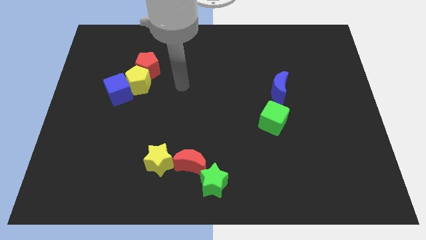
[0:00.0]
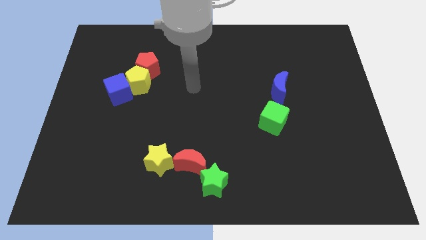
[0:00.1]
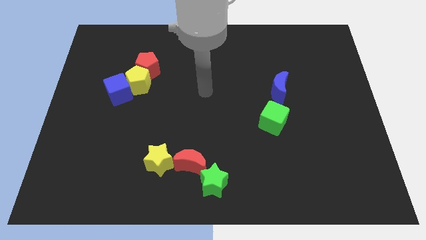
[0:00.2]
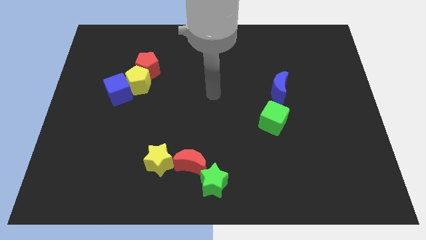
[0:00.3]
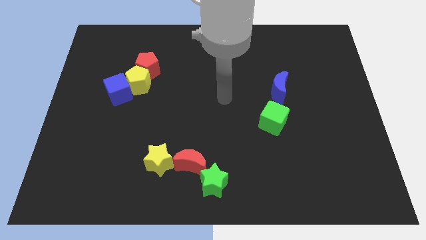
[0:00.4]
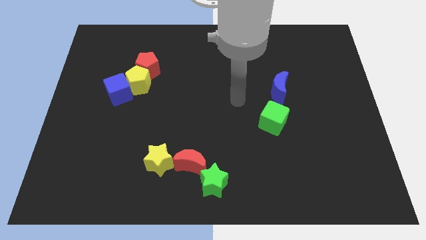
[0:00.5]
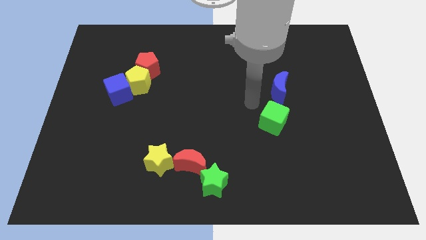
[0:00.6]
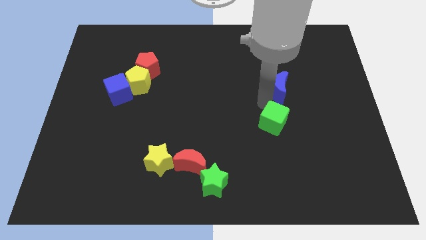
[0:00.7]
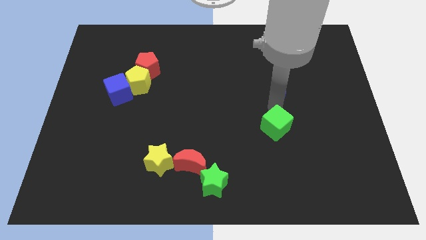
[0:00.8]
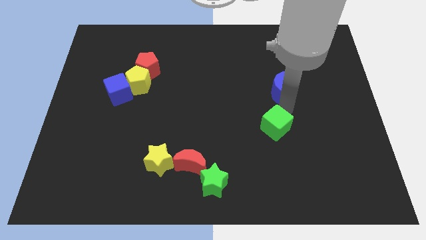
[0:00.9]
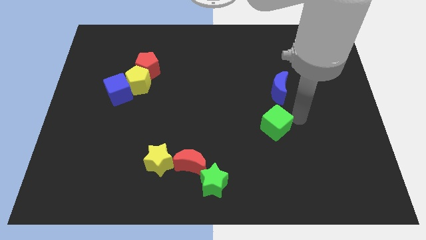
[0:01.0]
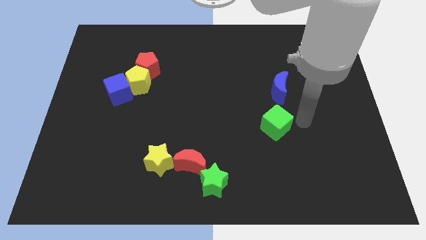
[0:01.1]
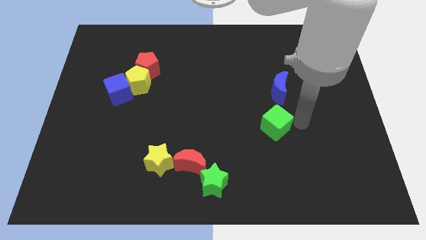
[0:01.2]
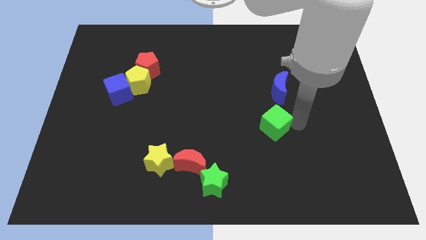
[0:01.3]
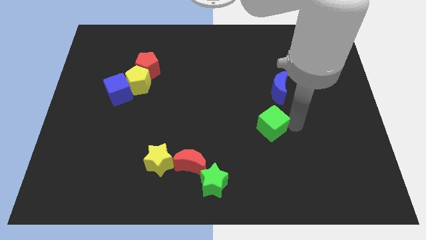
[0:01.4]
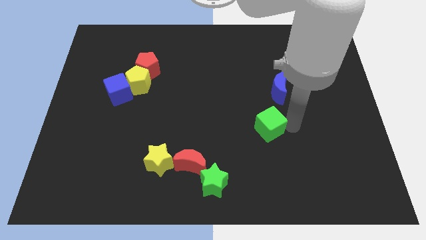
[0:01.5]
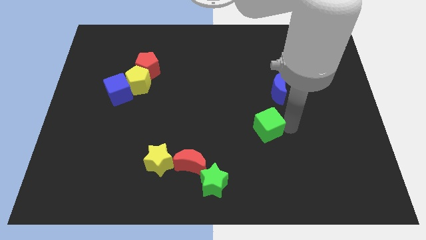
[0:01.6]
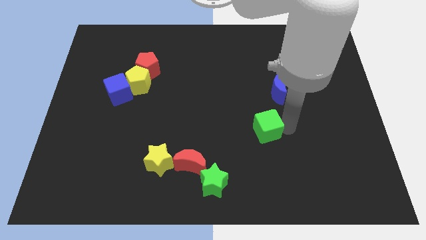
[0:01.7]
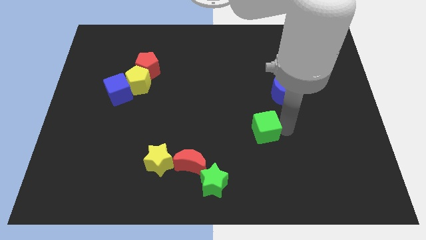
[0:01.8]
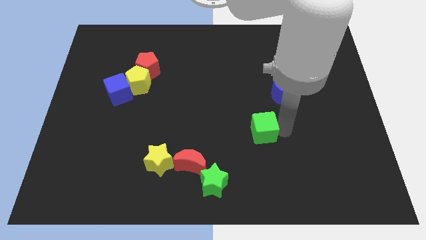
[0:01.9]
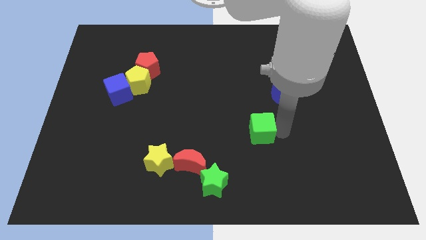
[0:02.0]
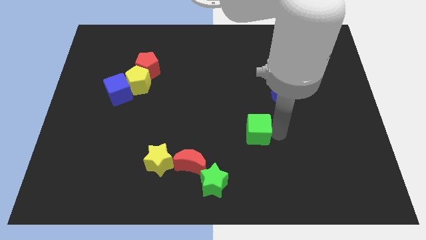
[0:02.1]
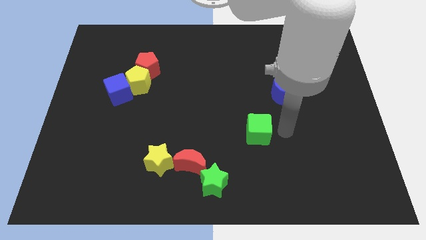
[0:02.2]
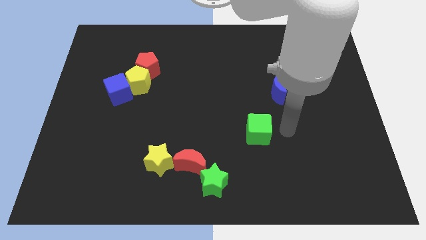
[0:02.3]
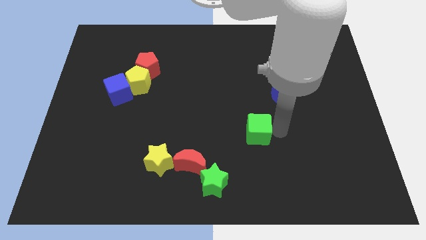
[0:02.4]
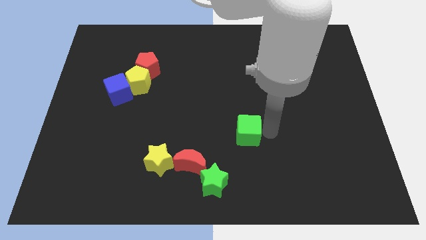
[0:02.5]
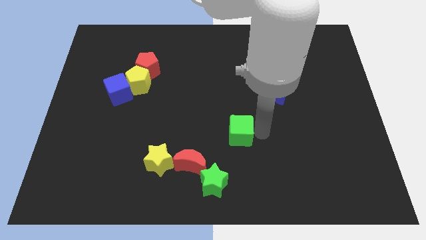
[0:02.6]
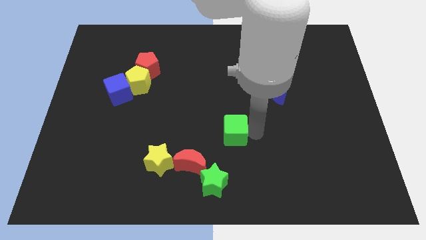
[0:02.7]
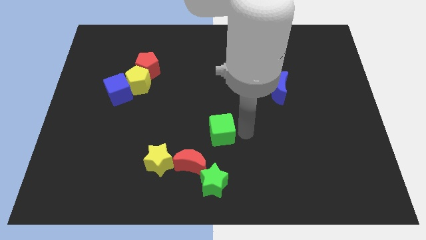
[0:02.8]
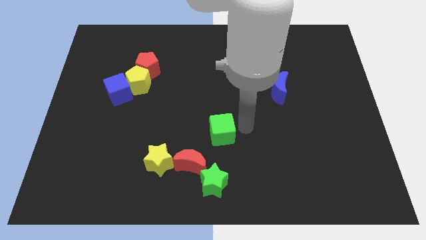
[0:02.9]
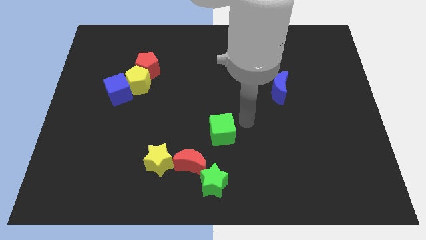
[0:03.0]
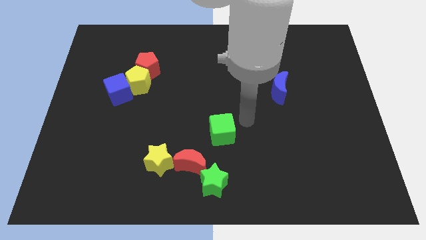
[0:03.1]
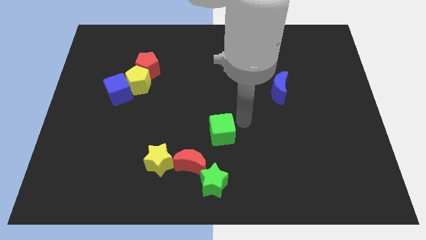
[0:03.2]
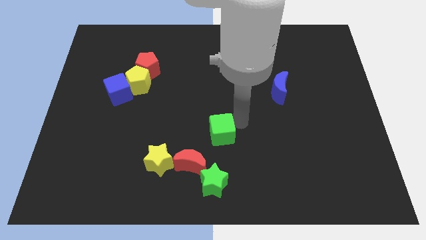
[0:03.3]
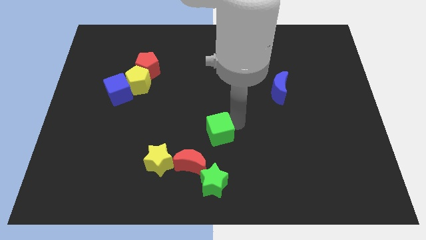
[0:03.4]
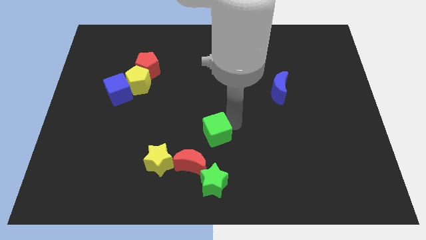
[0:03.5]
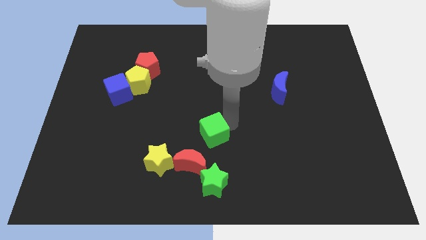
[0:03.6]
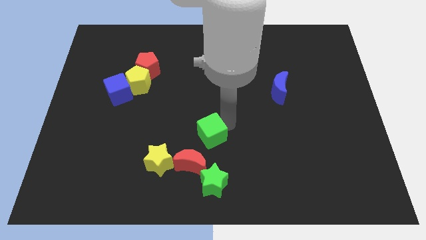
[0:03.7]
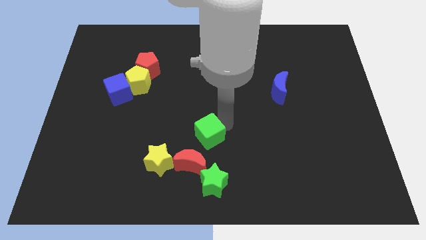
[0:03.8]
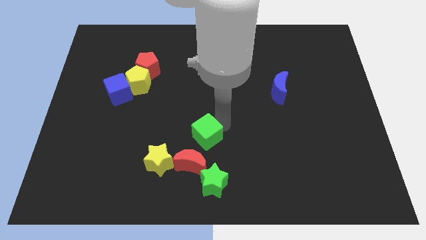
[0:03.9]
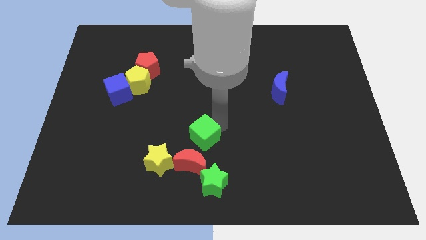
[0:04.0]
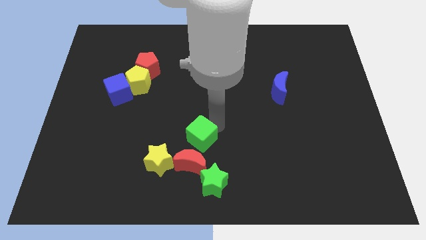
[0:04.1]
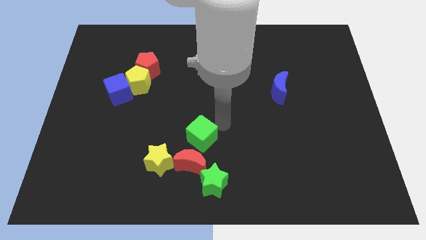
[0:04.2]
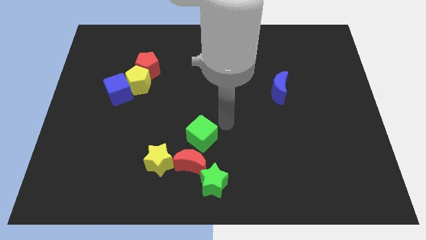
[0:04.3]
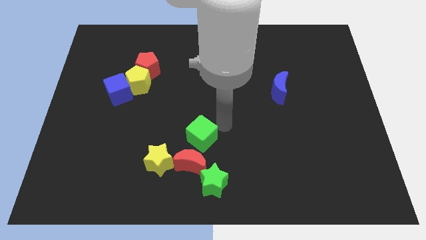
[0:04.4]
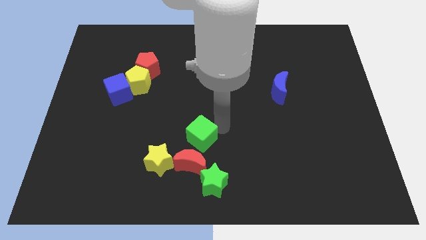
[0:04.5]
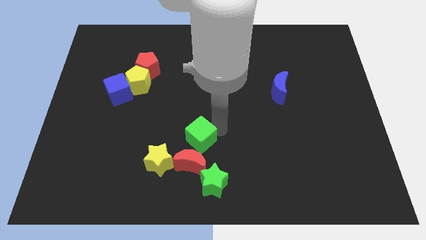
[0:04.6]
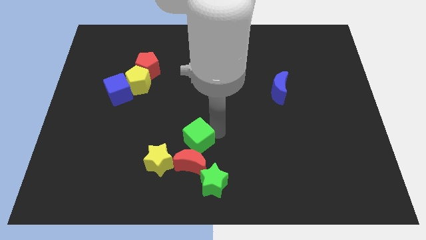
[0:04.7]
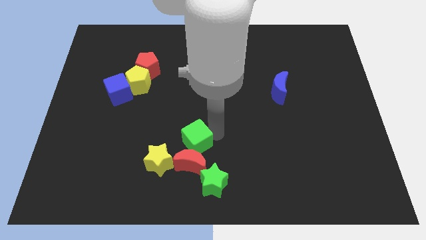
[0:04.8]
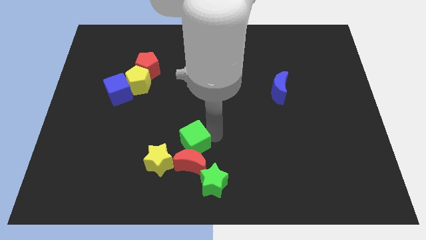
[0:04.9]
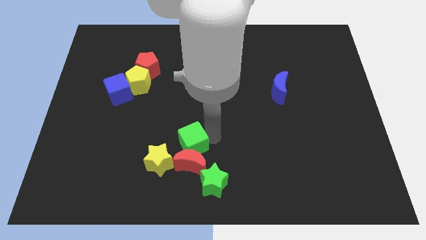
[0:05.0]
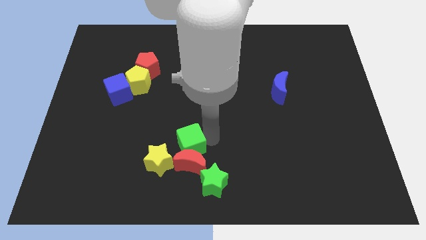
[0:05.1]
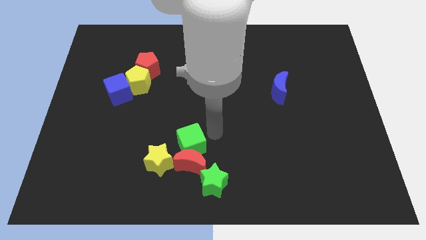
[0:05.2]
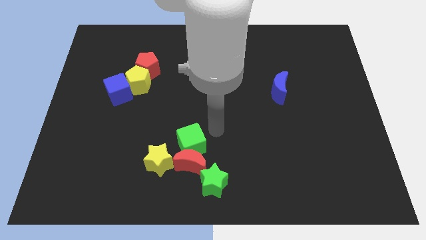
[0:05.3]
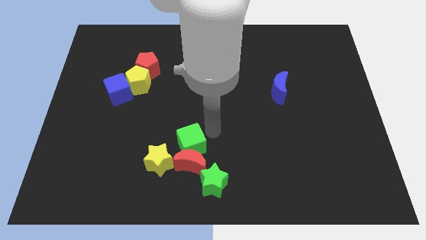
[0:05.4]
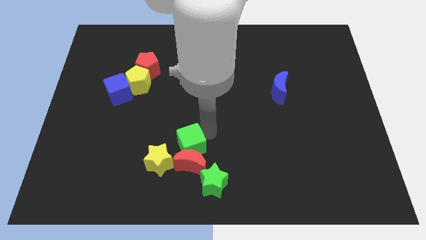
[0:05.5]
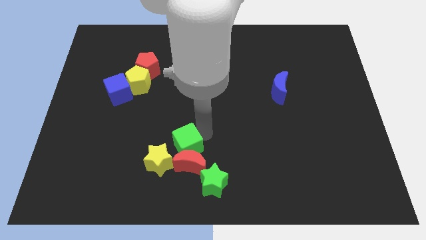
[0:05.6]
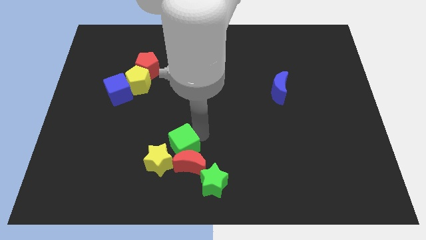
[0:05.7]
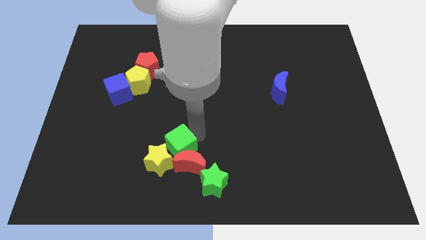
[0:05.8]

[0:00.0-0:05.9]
move the green cube to the yellow star

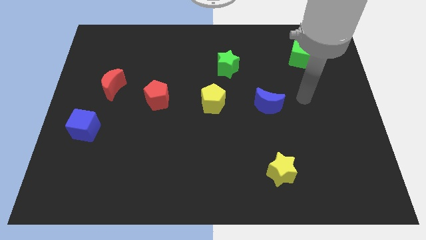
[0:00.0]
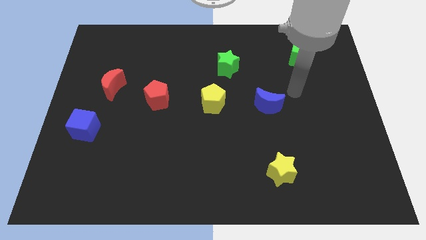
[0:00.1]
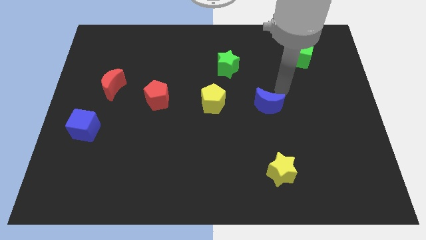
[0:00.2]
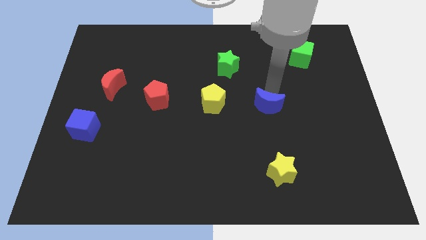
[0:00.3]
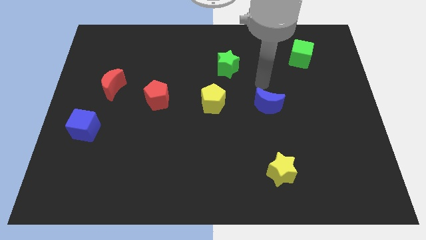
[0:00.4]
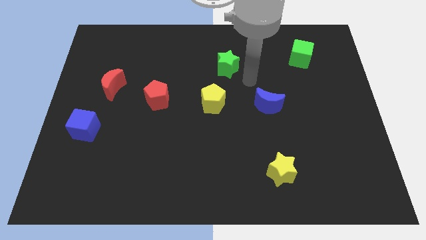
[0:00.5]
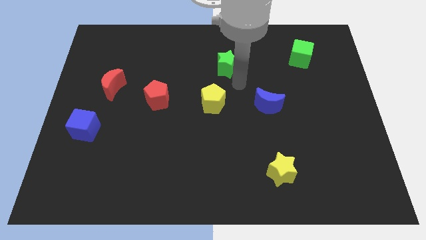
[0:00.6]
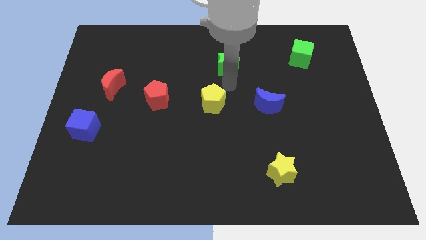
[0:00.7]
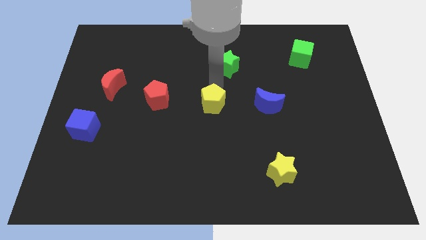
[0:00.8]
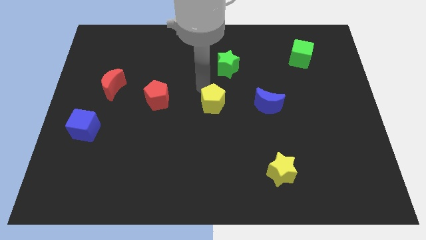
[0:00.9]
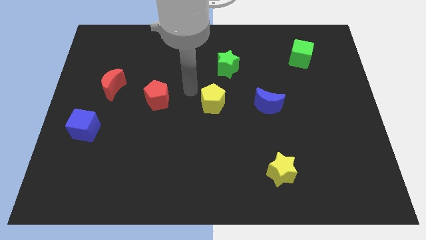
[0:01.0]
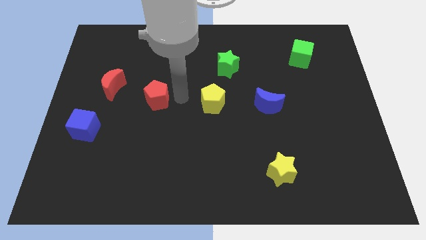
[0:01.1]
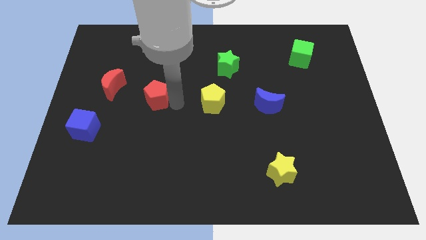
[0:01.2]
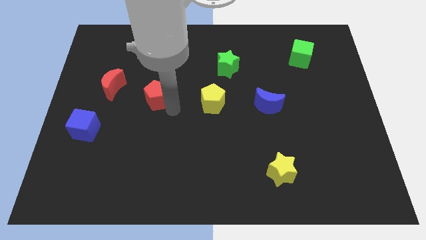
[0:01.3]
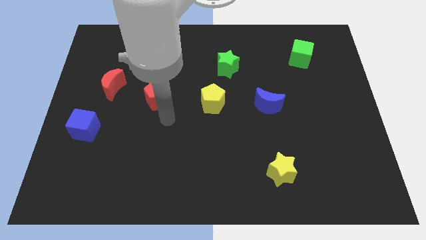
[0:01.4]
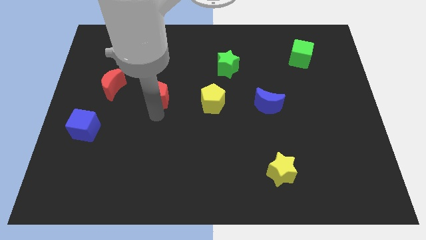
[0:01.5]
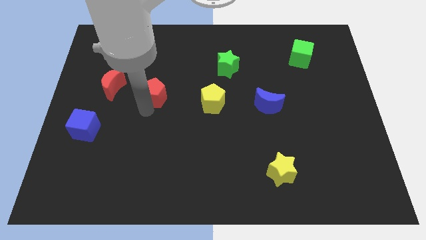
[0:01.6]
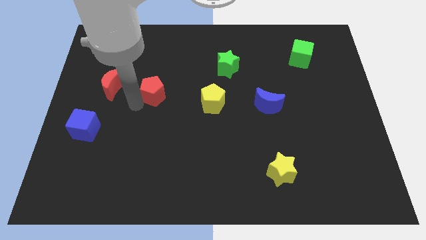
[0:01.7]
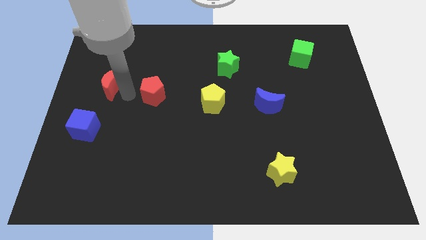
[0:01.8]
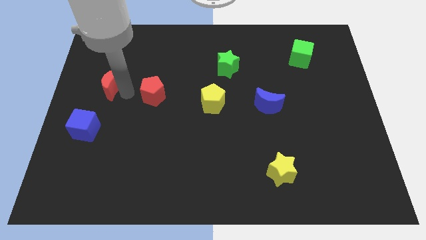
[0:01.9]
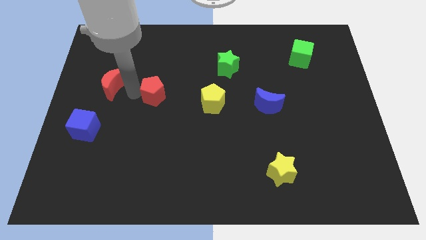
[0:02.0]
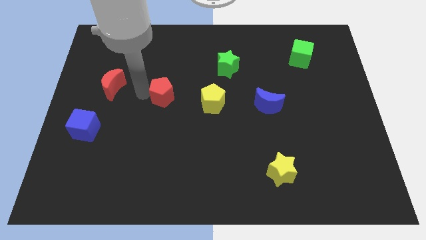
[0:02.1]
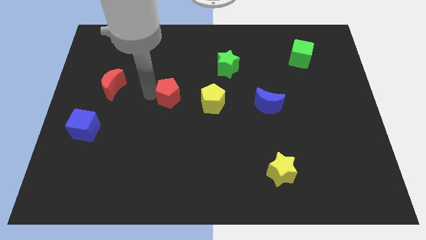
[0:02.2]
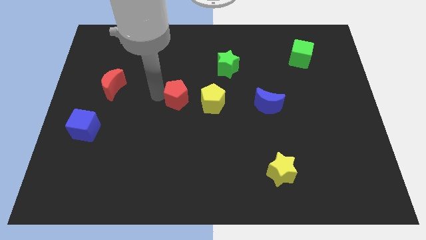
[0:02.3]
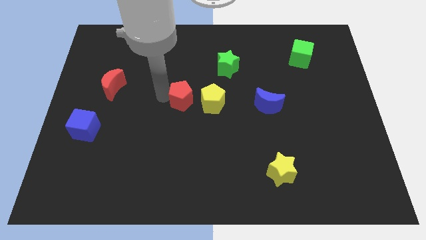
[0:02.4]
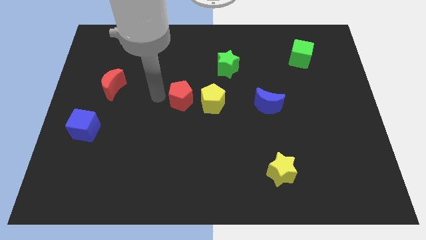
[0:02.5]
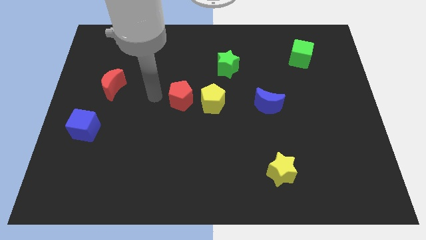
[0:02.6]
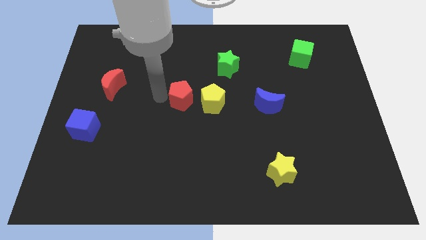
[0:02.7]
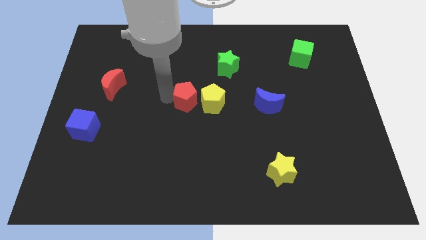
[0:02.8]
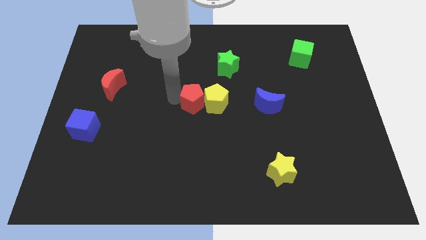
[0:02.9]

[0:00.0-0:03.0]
move the red pentagon towards the yellow pentagon
